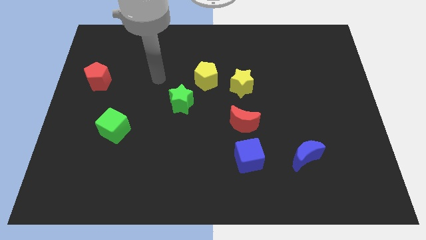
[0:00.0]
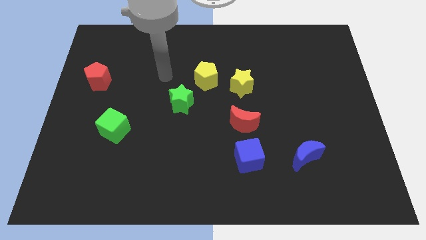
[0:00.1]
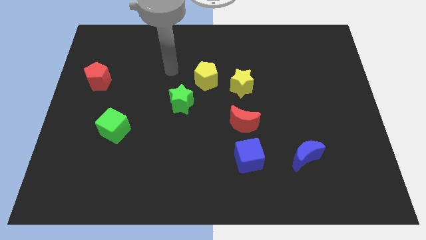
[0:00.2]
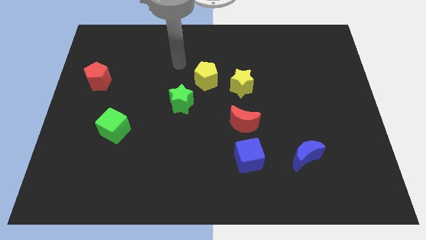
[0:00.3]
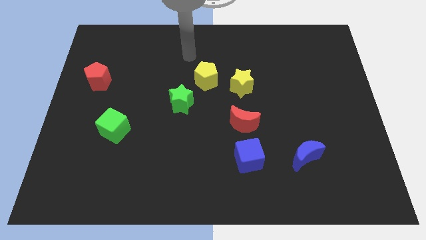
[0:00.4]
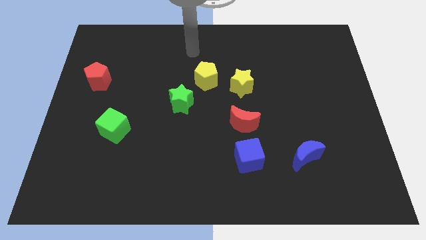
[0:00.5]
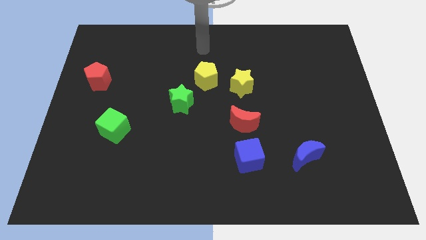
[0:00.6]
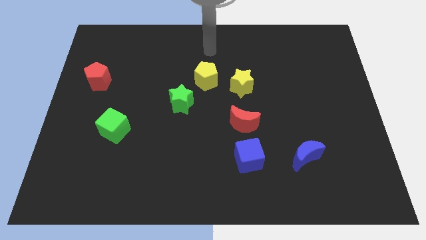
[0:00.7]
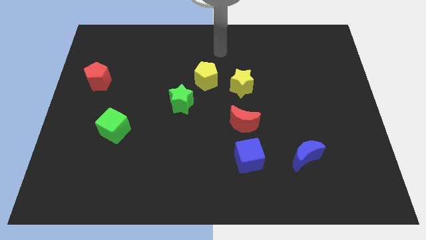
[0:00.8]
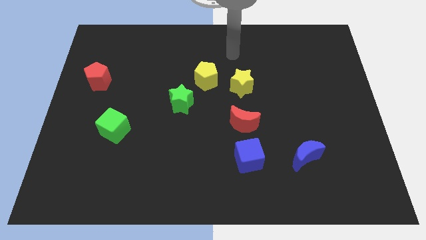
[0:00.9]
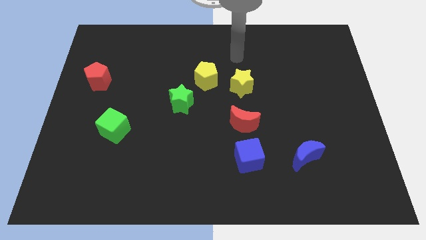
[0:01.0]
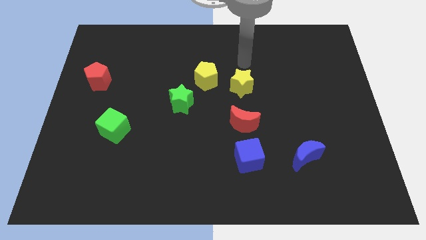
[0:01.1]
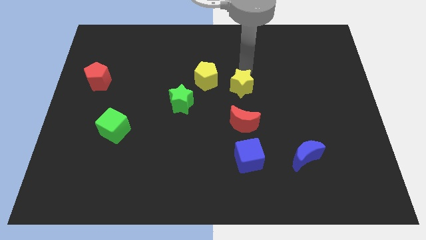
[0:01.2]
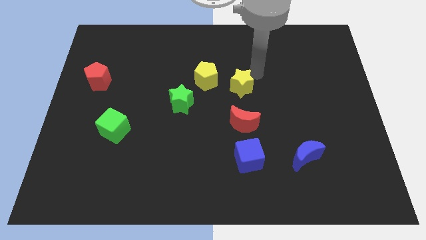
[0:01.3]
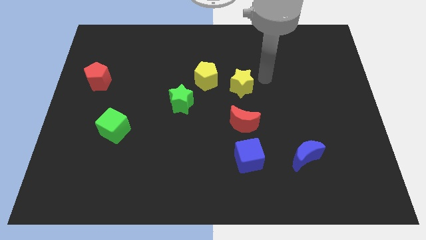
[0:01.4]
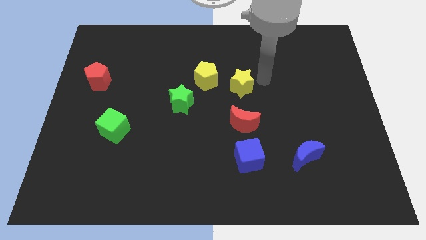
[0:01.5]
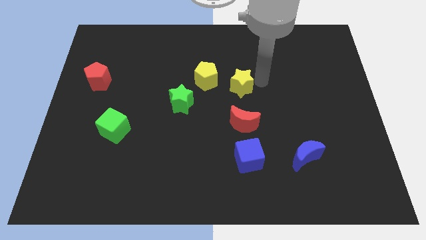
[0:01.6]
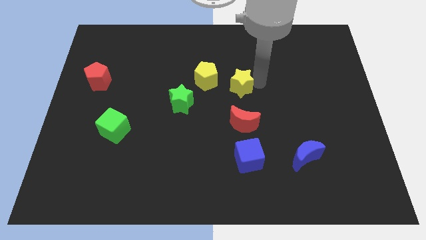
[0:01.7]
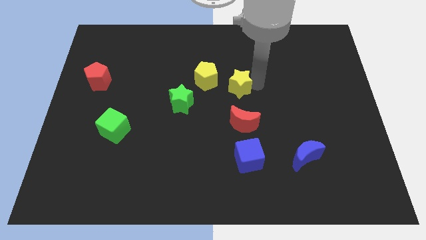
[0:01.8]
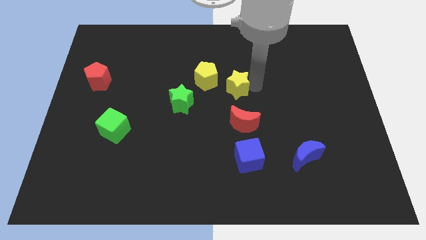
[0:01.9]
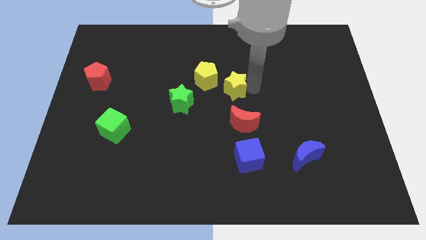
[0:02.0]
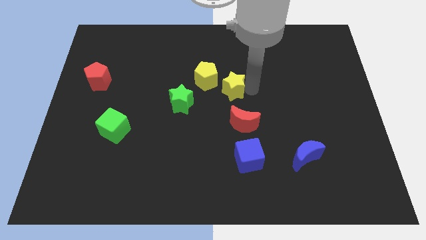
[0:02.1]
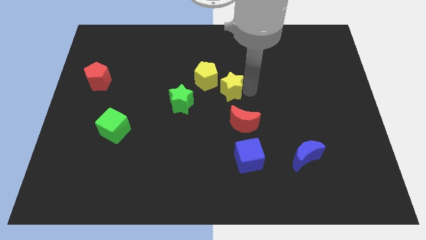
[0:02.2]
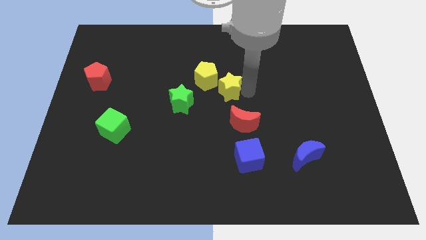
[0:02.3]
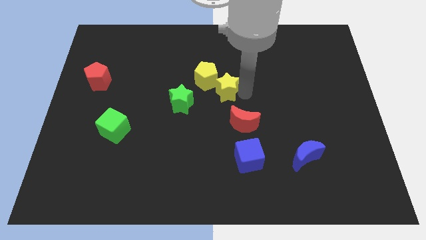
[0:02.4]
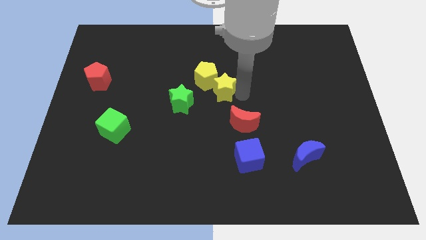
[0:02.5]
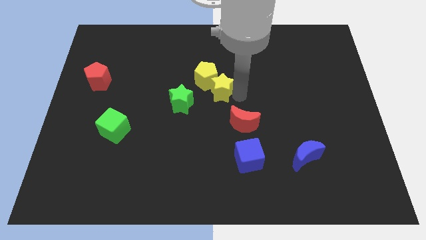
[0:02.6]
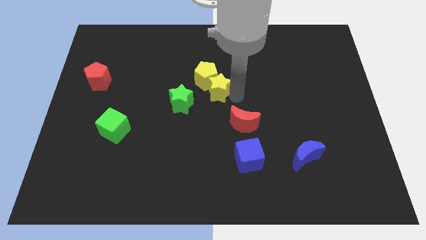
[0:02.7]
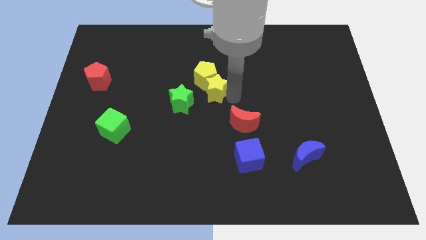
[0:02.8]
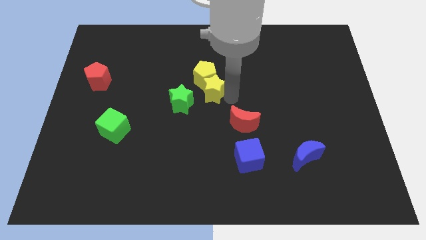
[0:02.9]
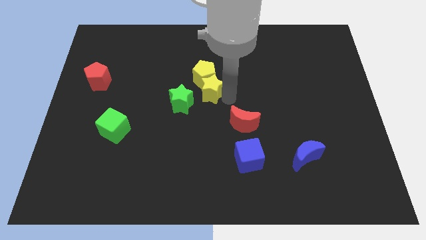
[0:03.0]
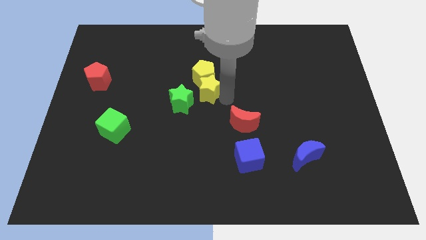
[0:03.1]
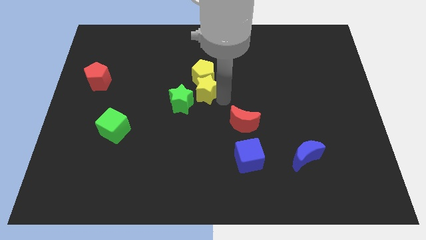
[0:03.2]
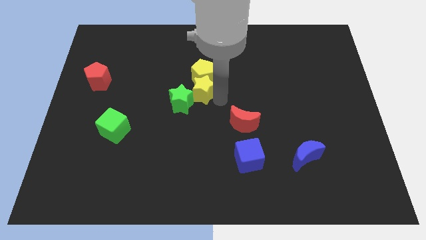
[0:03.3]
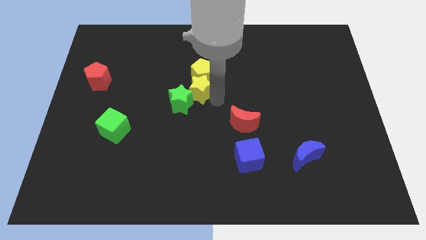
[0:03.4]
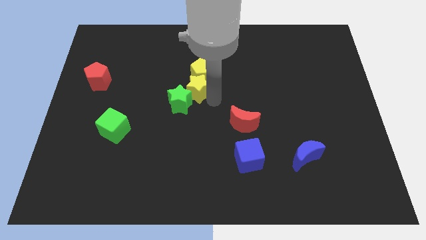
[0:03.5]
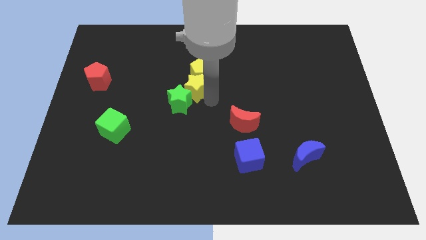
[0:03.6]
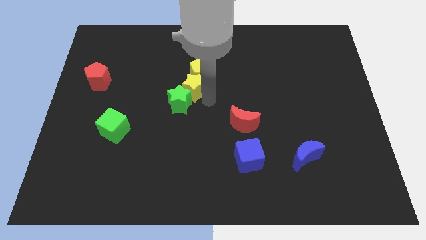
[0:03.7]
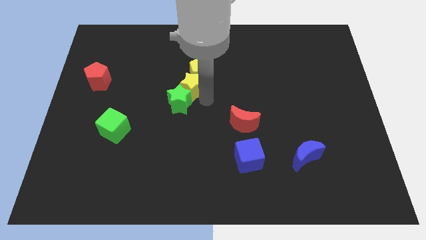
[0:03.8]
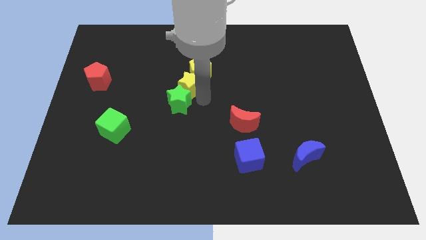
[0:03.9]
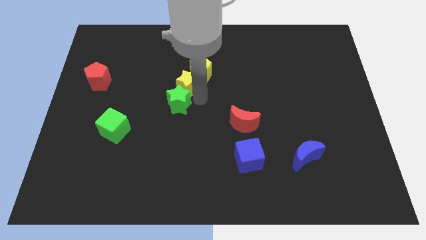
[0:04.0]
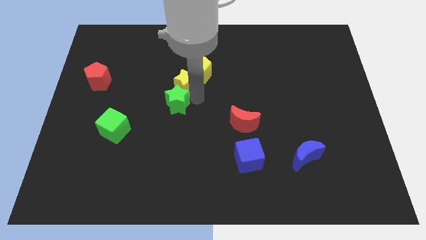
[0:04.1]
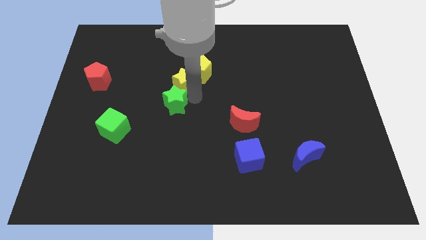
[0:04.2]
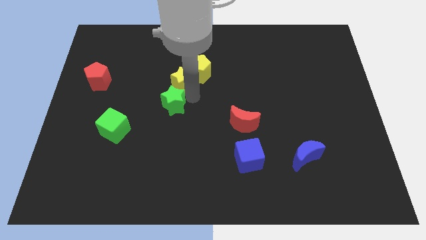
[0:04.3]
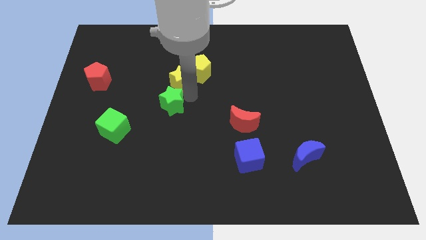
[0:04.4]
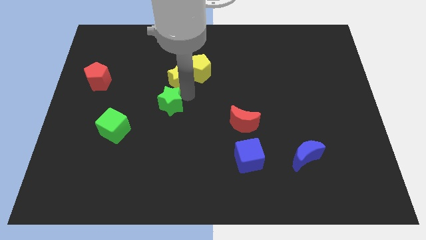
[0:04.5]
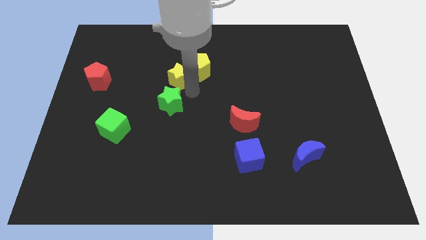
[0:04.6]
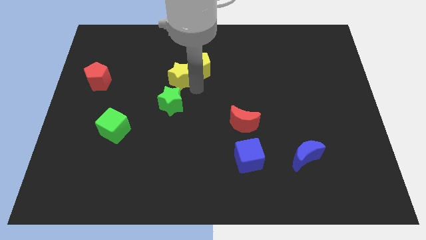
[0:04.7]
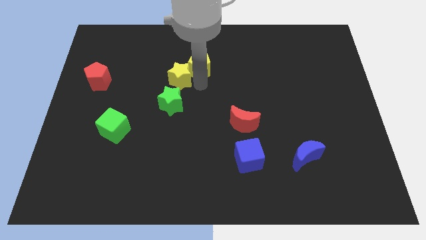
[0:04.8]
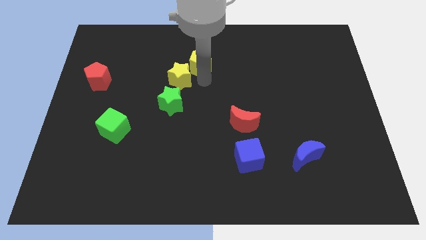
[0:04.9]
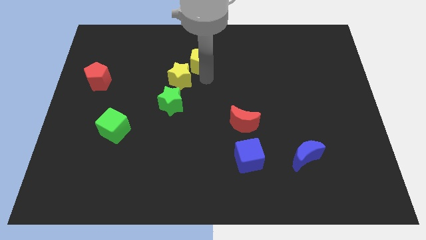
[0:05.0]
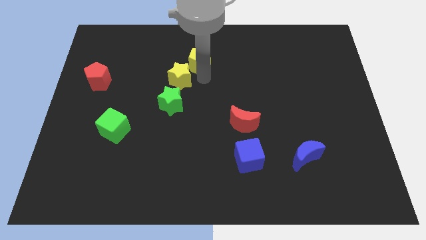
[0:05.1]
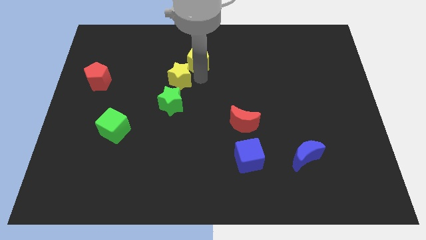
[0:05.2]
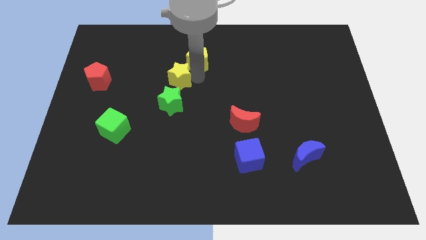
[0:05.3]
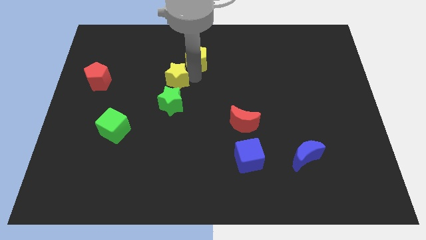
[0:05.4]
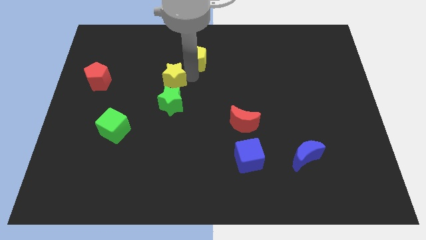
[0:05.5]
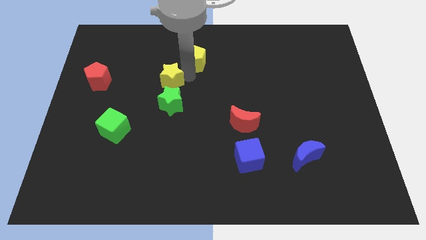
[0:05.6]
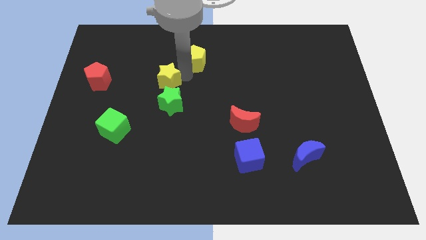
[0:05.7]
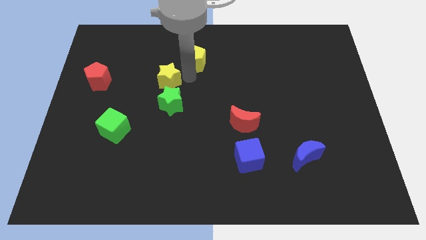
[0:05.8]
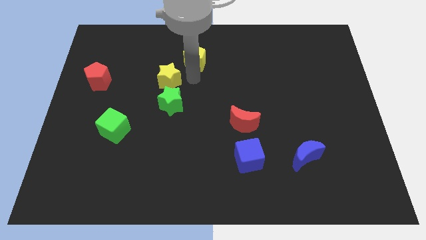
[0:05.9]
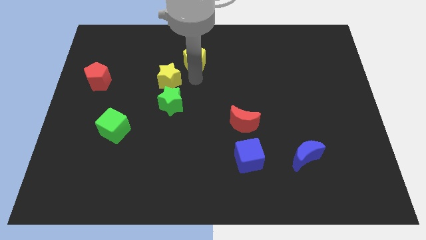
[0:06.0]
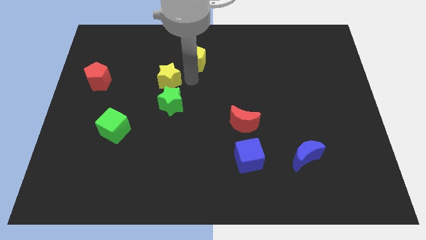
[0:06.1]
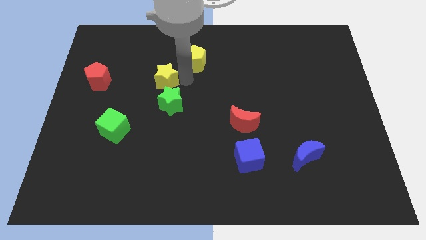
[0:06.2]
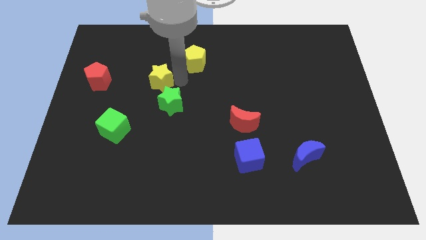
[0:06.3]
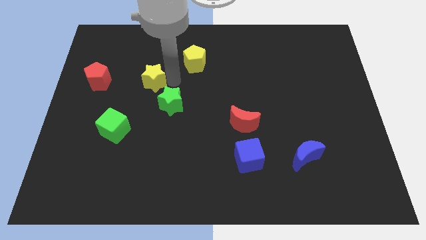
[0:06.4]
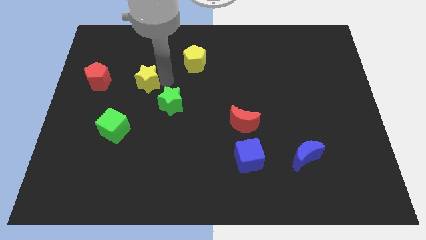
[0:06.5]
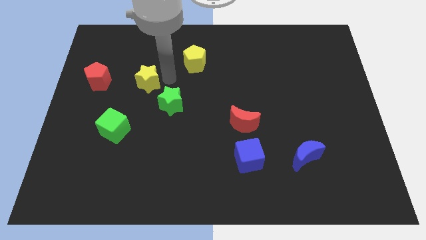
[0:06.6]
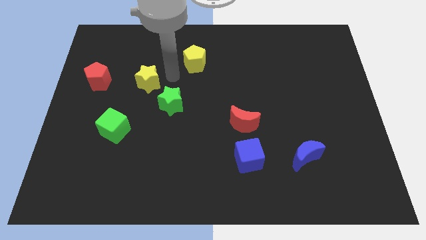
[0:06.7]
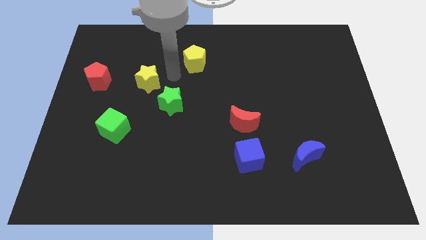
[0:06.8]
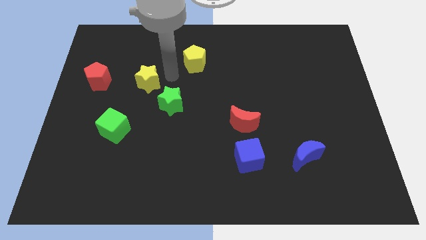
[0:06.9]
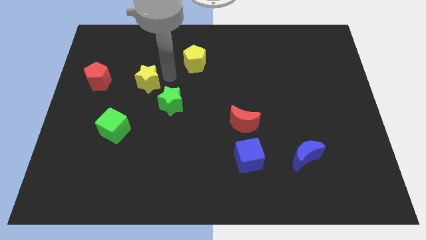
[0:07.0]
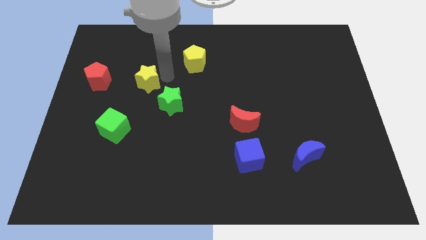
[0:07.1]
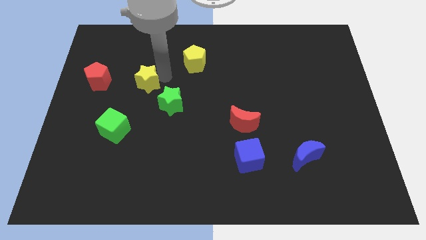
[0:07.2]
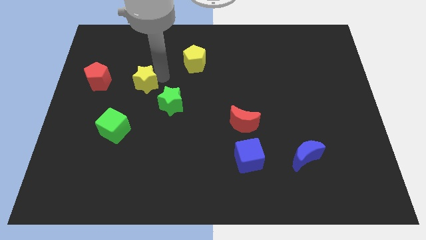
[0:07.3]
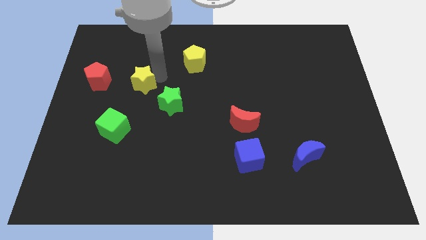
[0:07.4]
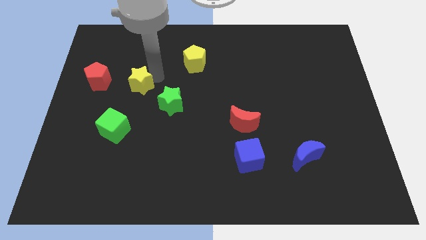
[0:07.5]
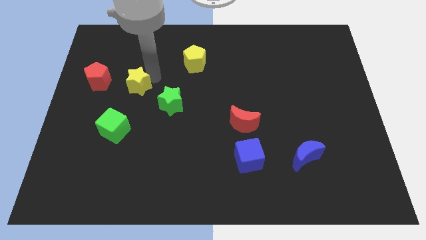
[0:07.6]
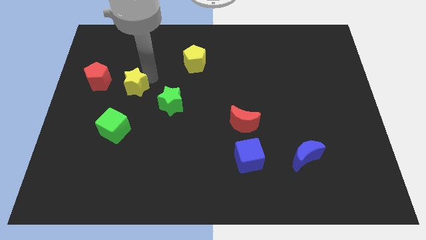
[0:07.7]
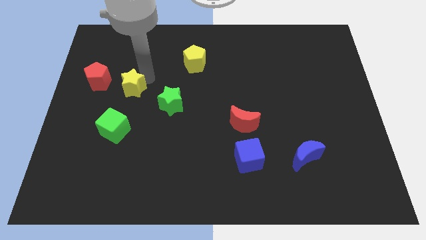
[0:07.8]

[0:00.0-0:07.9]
slide the yellow star diagonally down and to the right of the red pentagon
